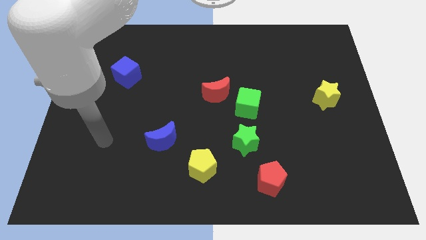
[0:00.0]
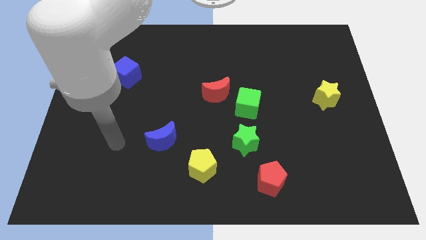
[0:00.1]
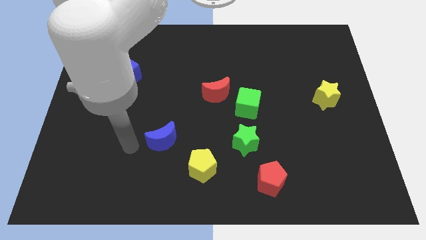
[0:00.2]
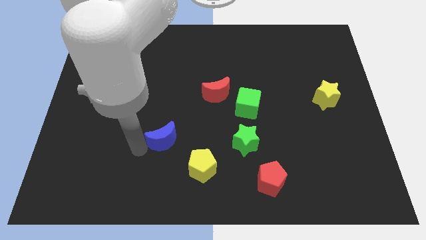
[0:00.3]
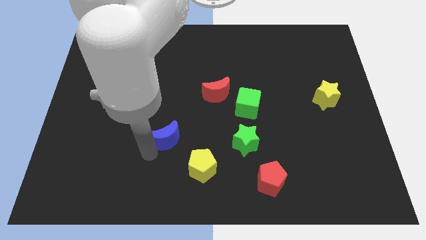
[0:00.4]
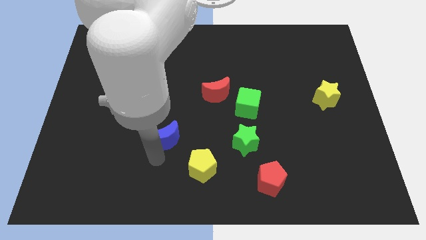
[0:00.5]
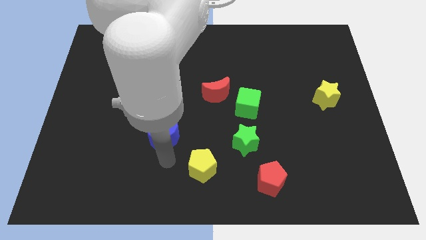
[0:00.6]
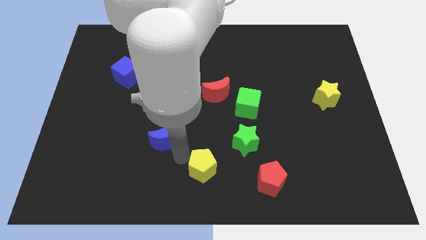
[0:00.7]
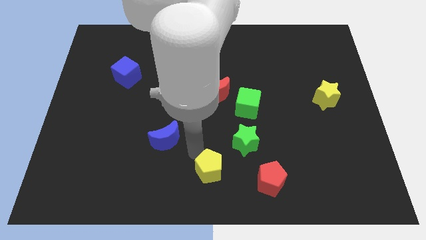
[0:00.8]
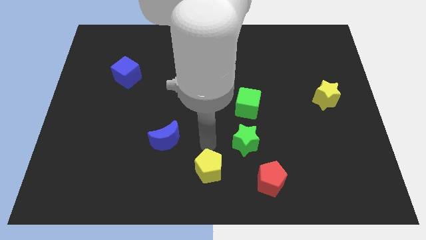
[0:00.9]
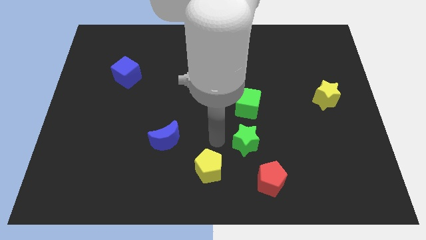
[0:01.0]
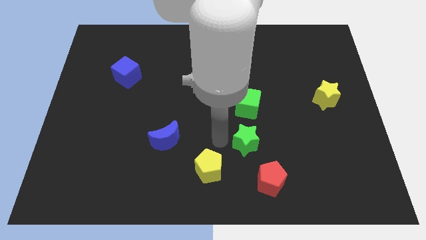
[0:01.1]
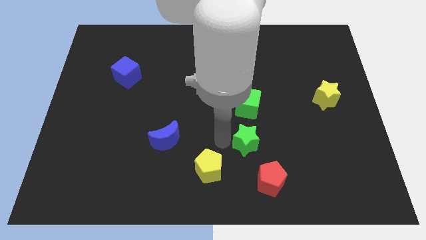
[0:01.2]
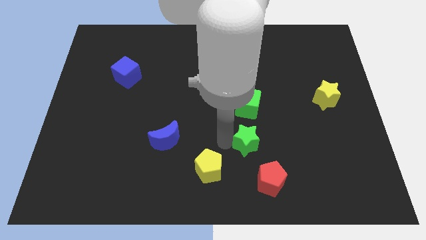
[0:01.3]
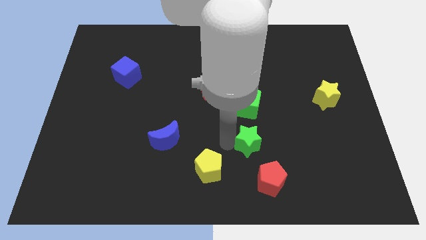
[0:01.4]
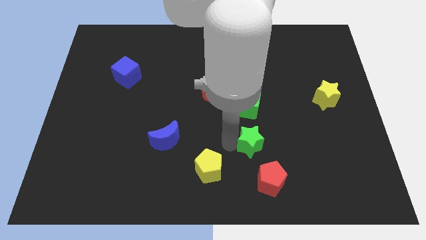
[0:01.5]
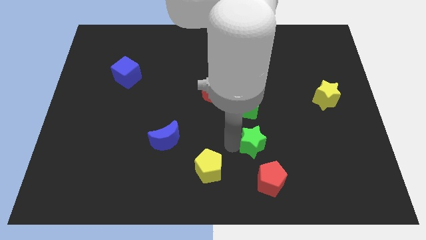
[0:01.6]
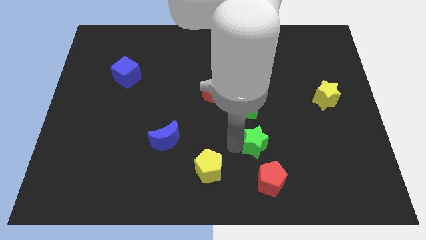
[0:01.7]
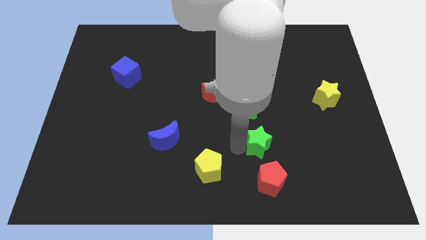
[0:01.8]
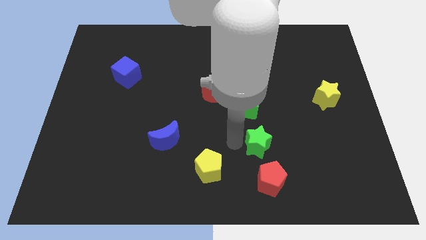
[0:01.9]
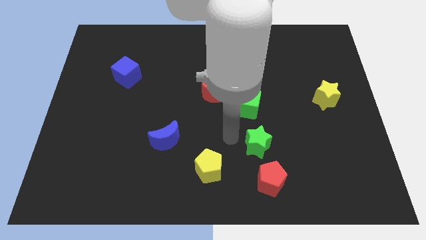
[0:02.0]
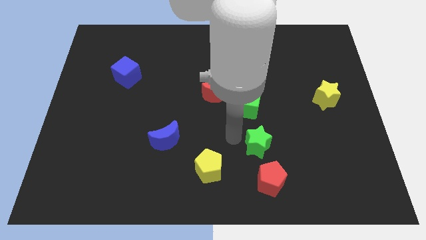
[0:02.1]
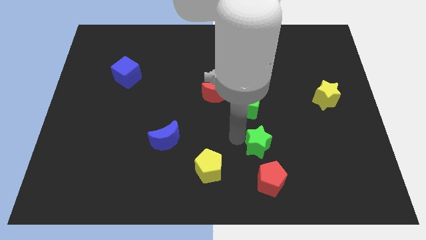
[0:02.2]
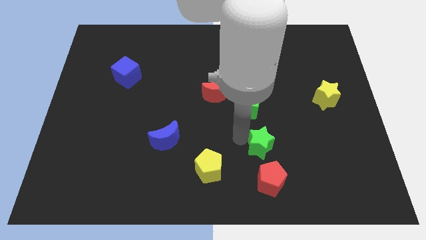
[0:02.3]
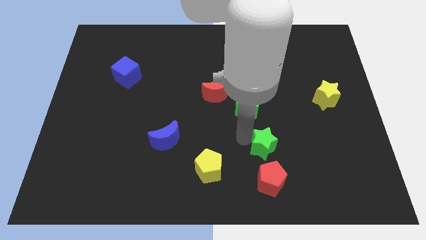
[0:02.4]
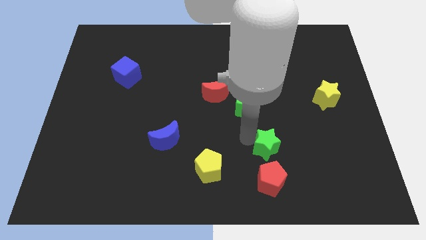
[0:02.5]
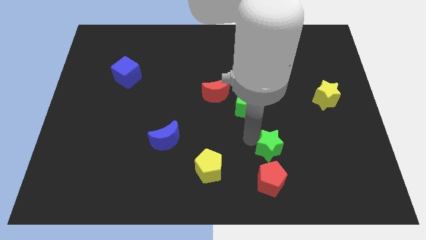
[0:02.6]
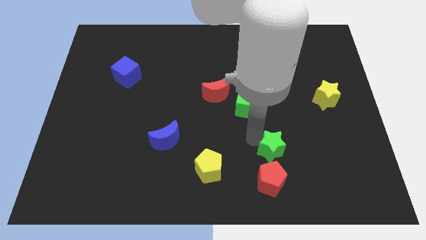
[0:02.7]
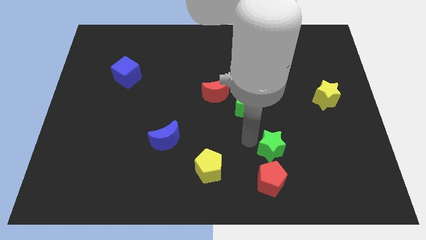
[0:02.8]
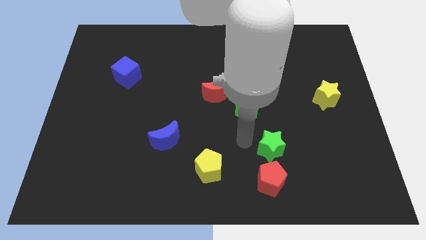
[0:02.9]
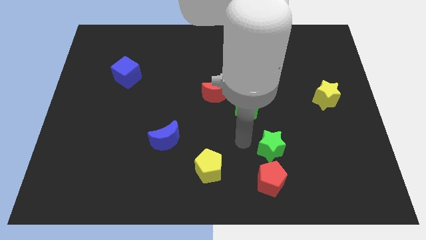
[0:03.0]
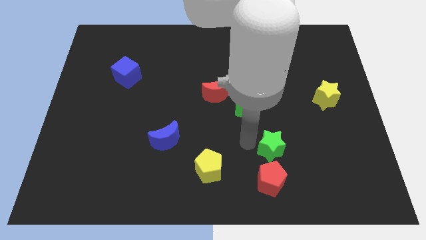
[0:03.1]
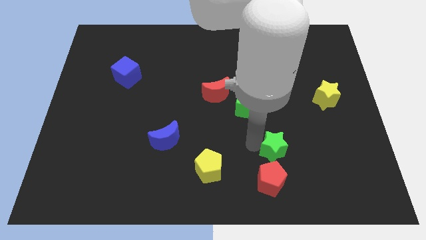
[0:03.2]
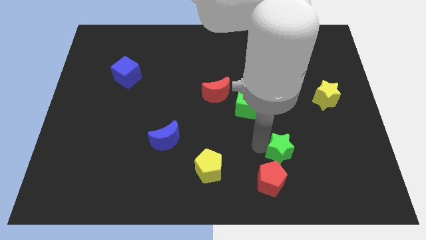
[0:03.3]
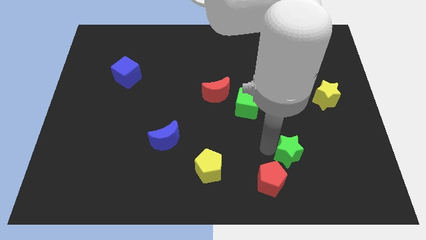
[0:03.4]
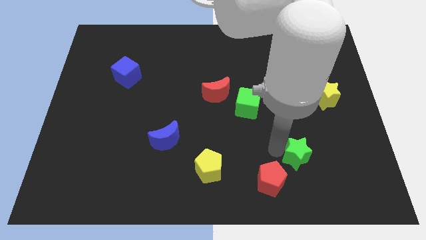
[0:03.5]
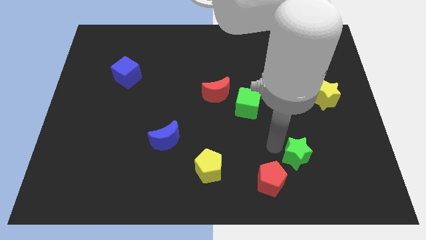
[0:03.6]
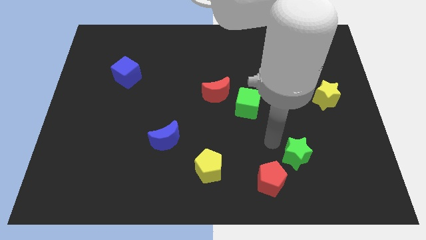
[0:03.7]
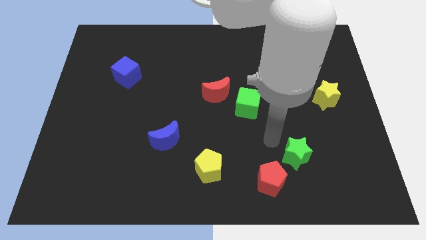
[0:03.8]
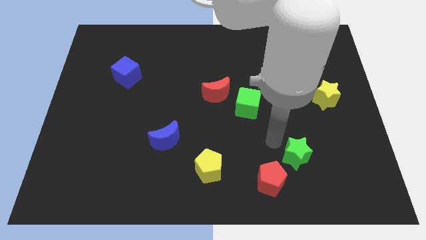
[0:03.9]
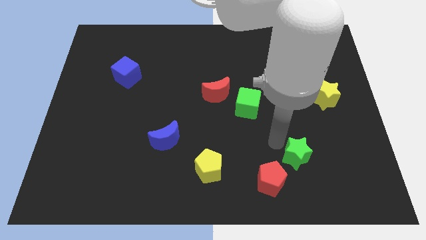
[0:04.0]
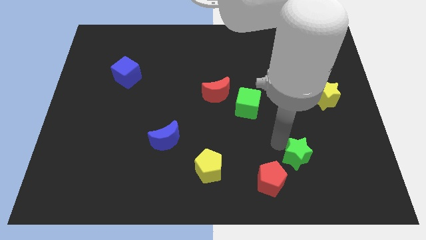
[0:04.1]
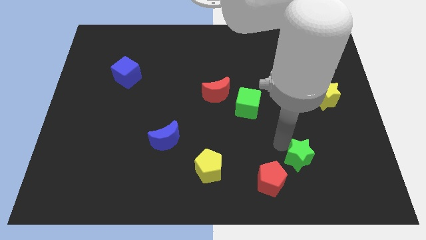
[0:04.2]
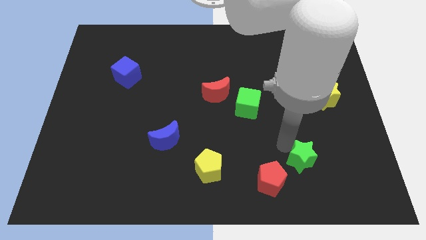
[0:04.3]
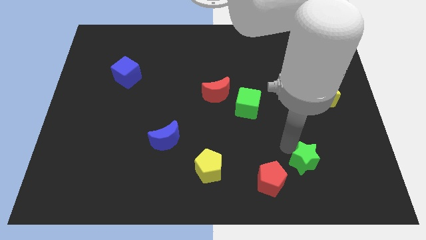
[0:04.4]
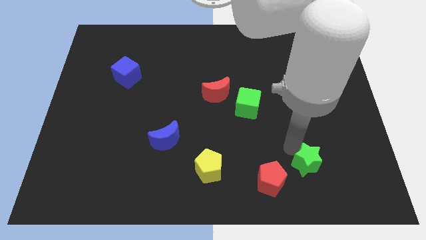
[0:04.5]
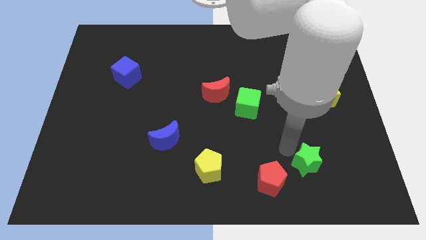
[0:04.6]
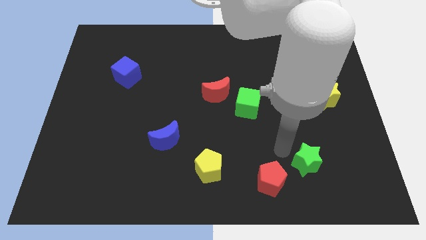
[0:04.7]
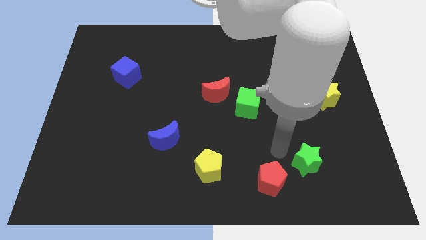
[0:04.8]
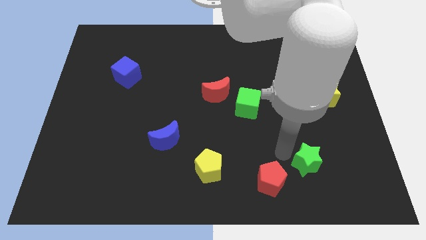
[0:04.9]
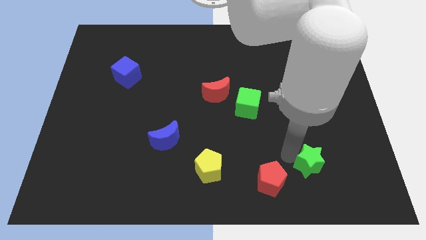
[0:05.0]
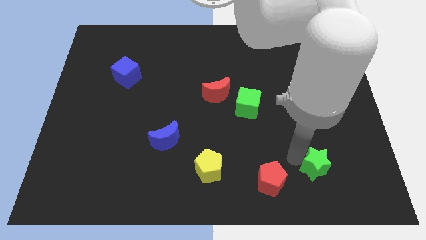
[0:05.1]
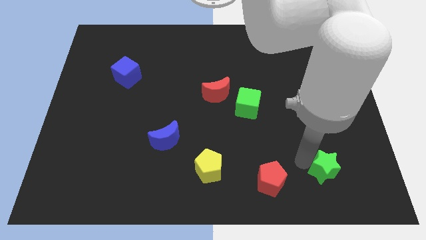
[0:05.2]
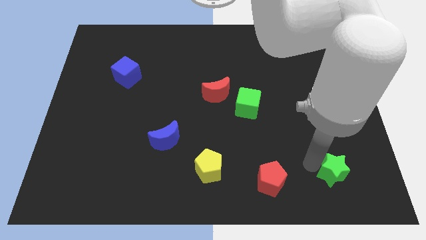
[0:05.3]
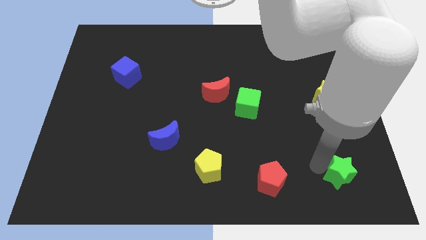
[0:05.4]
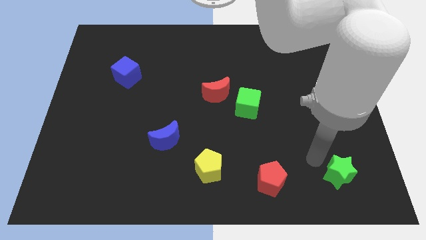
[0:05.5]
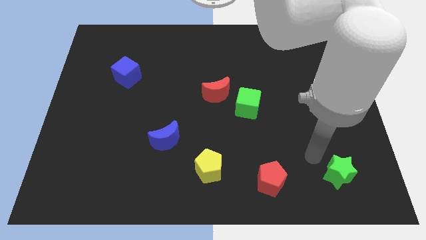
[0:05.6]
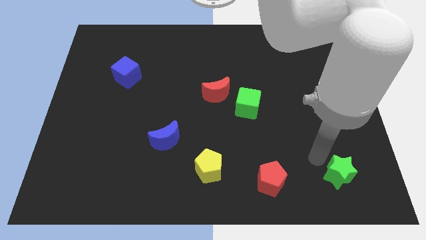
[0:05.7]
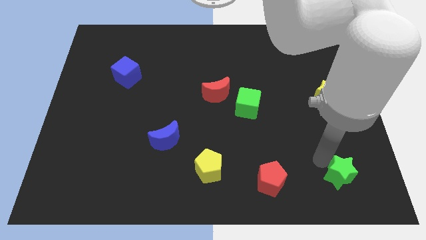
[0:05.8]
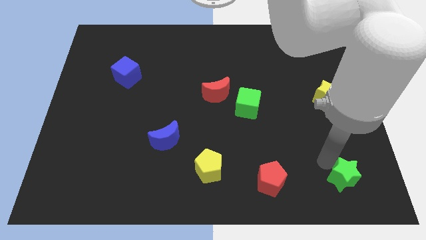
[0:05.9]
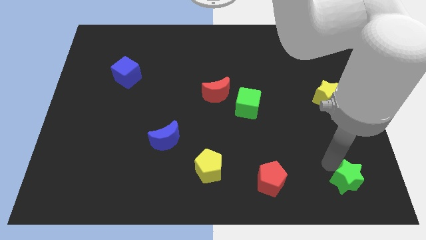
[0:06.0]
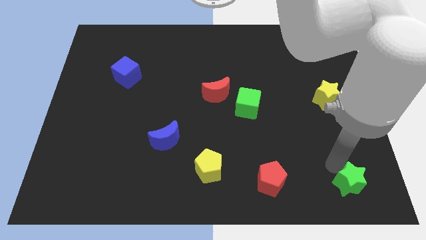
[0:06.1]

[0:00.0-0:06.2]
slide the green star to the bottom right

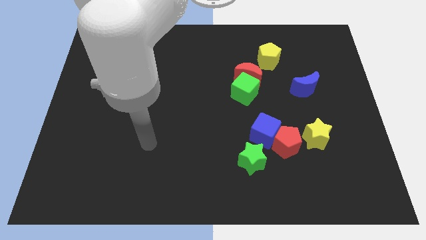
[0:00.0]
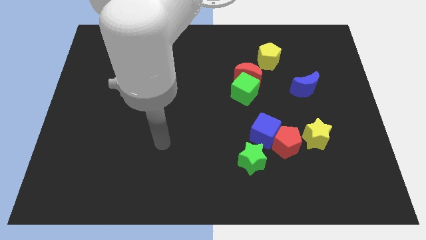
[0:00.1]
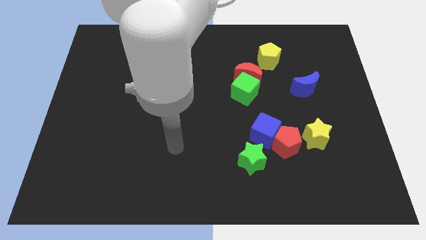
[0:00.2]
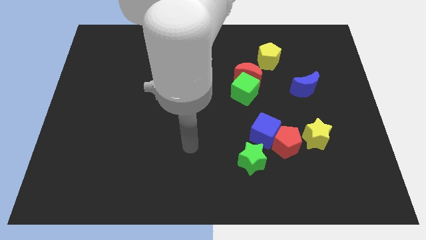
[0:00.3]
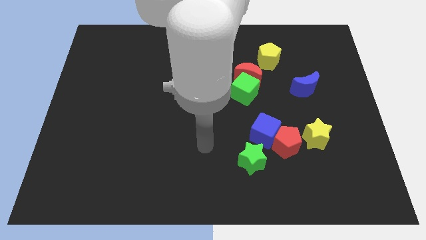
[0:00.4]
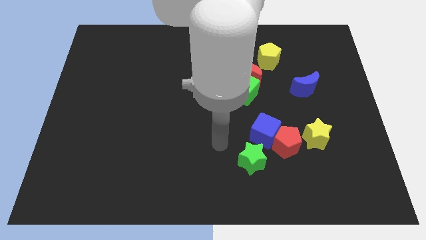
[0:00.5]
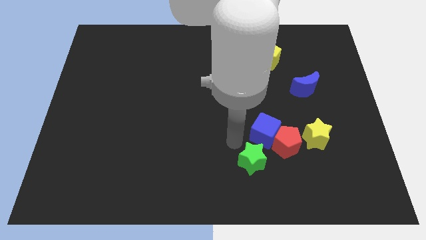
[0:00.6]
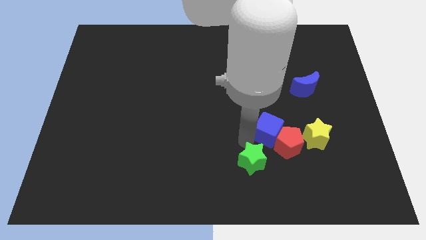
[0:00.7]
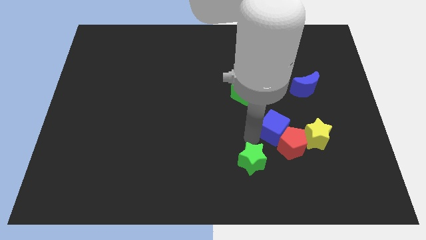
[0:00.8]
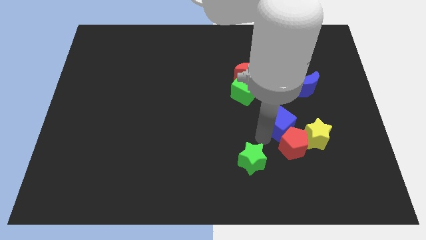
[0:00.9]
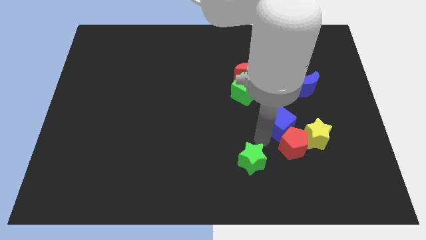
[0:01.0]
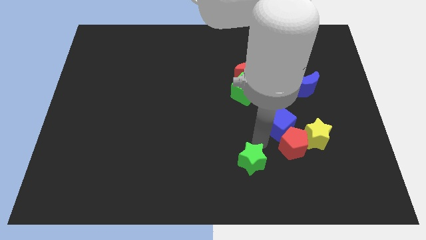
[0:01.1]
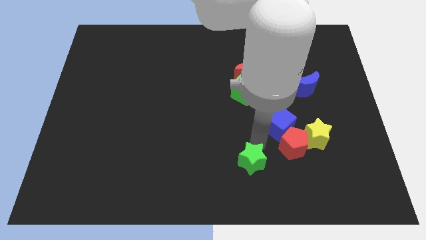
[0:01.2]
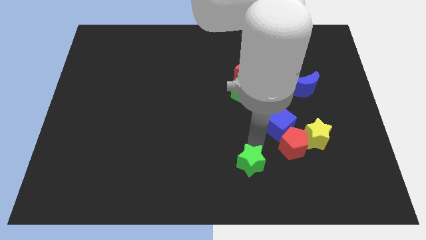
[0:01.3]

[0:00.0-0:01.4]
move the green star to the bottom
